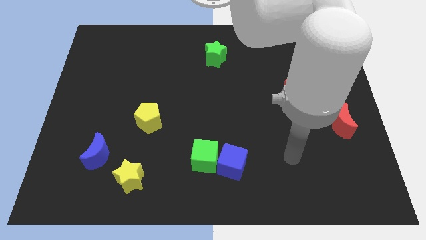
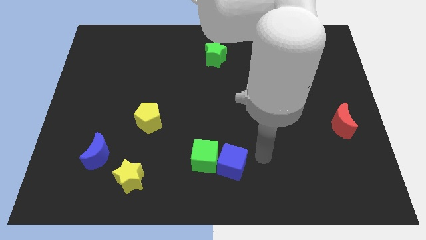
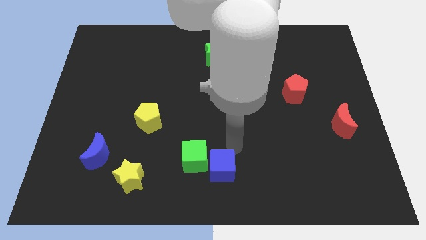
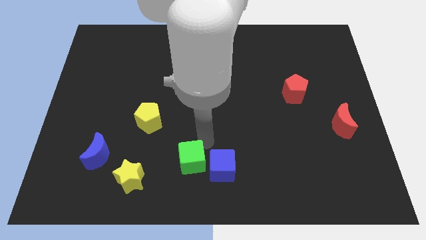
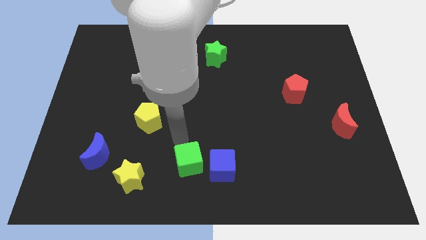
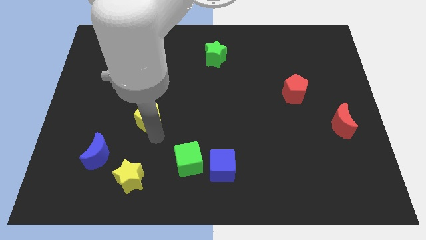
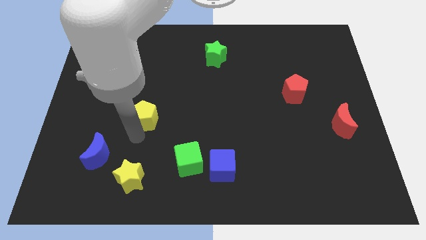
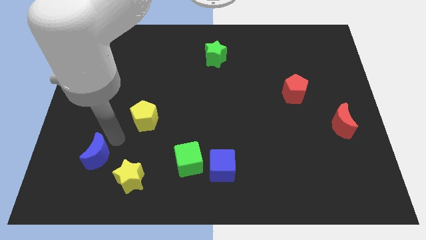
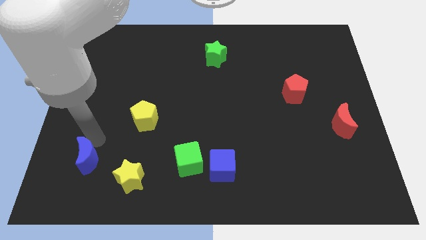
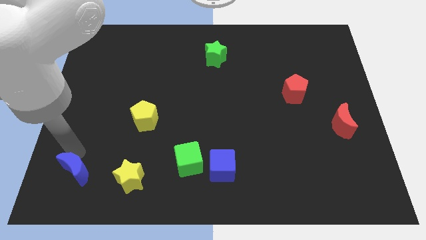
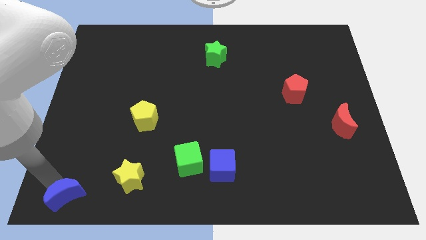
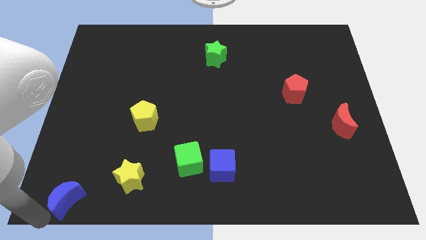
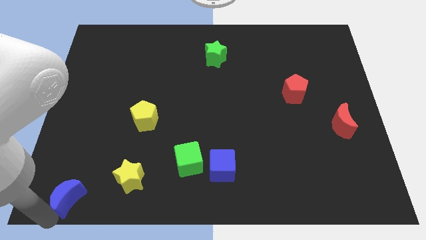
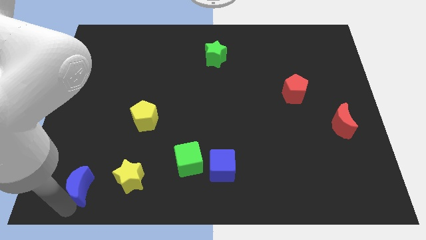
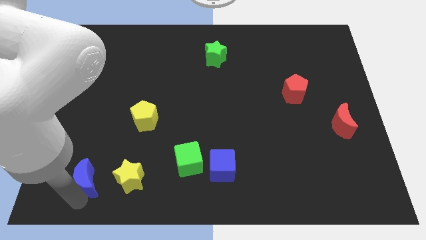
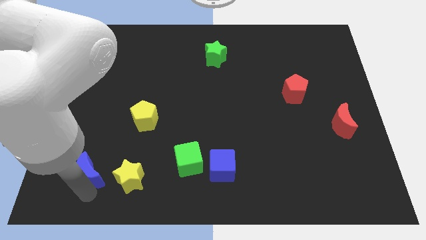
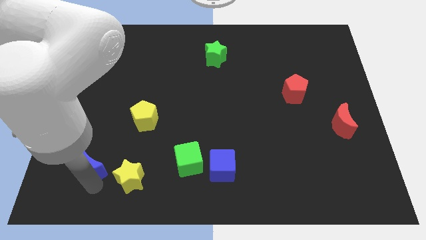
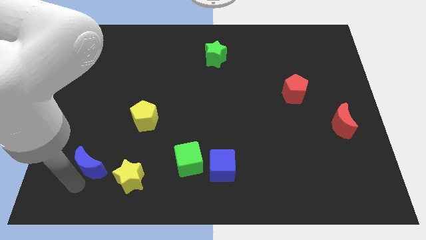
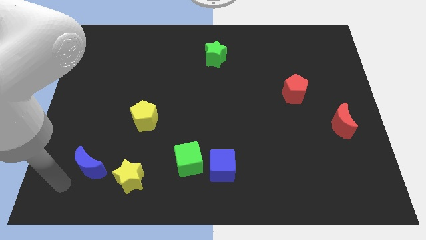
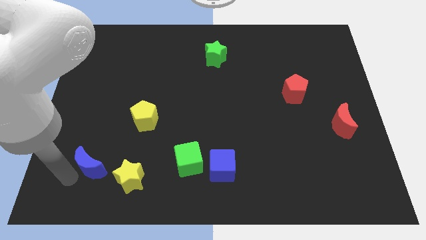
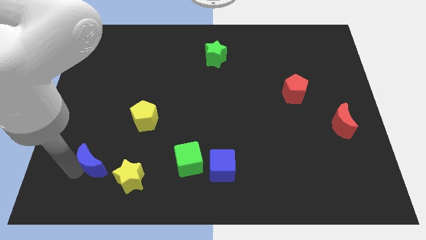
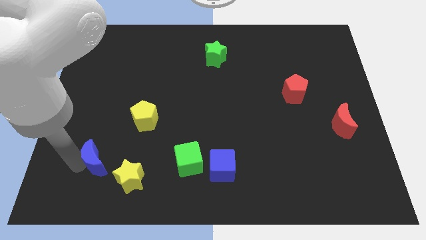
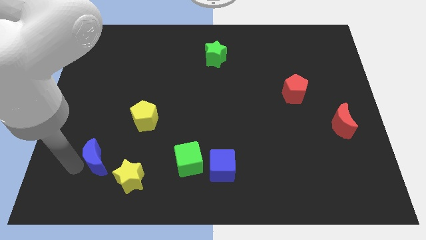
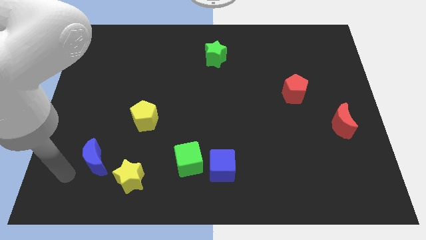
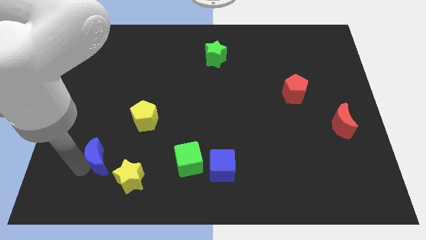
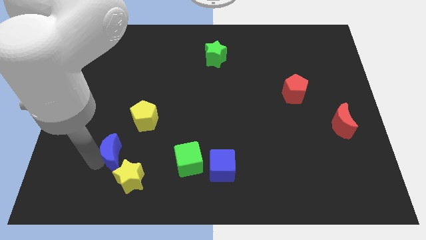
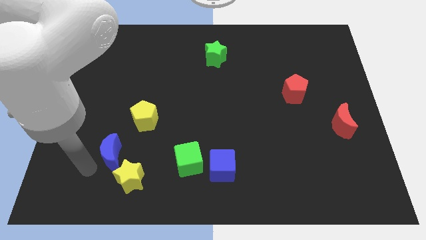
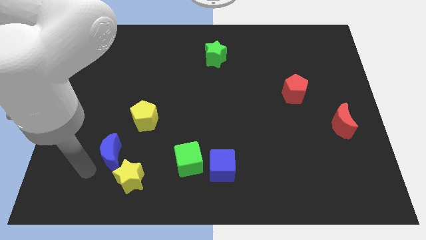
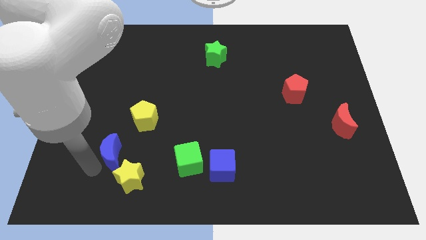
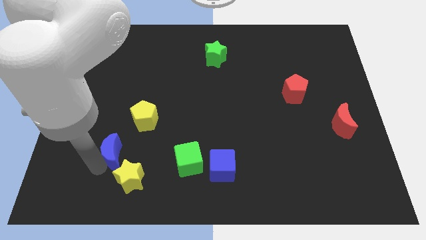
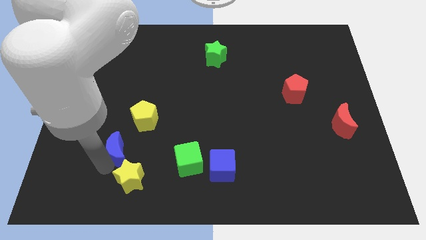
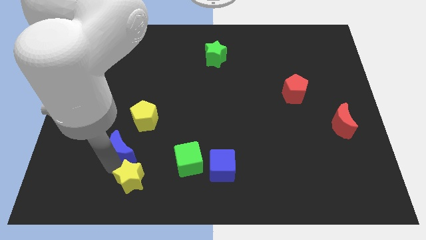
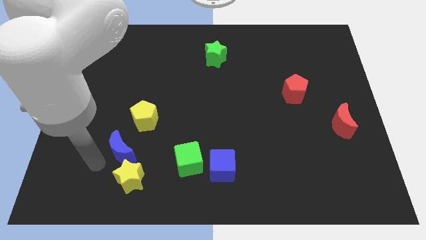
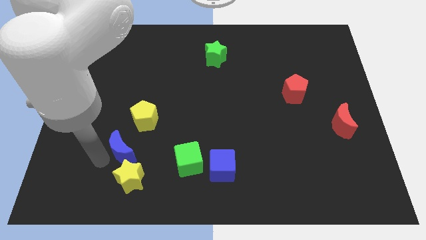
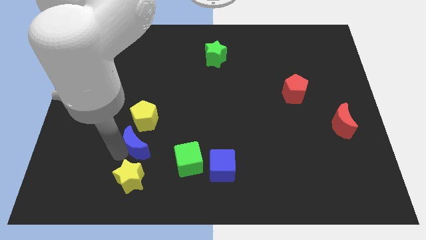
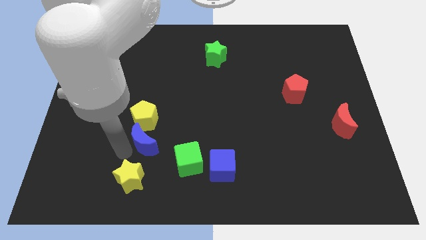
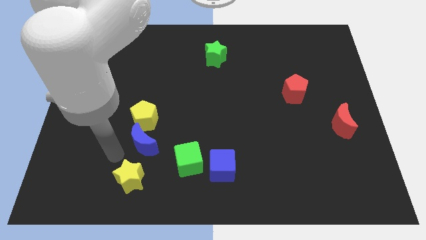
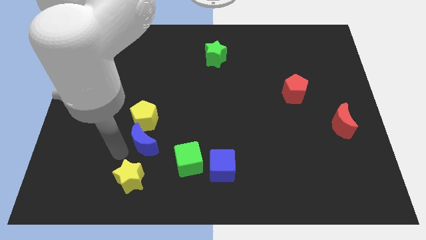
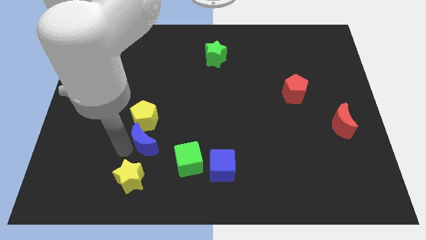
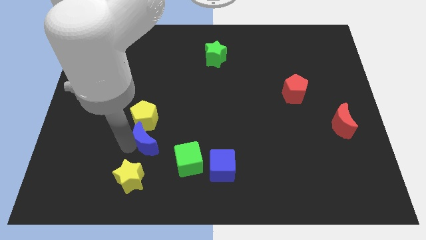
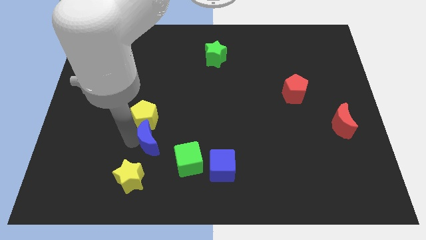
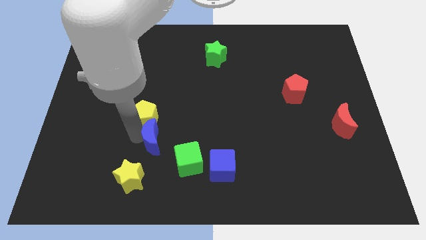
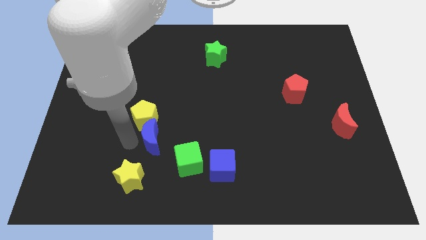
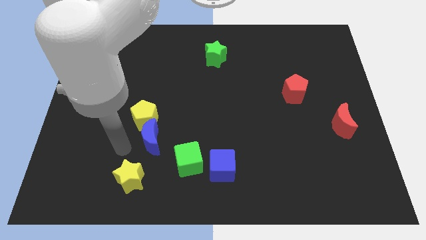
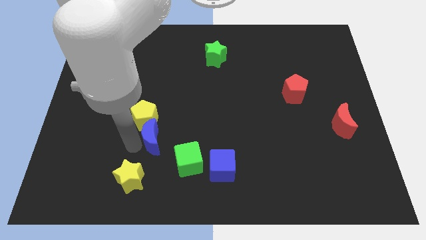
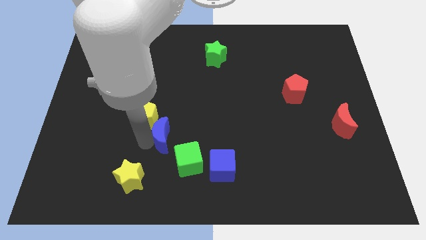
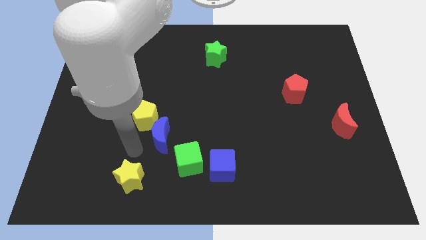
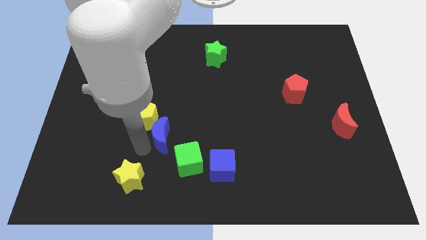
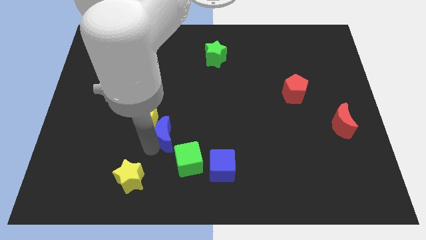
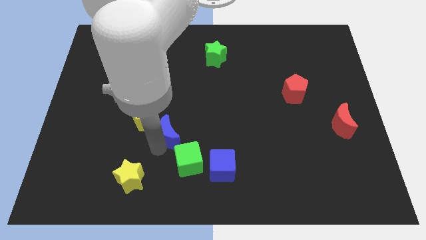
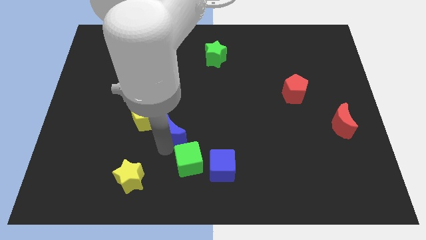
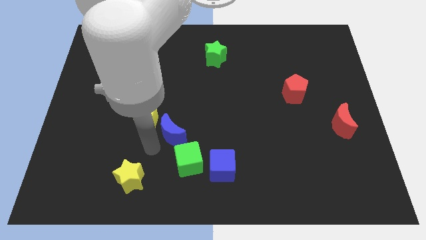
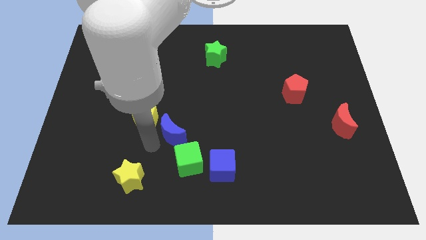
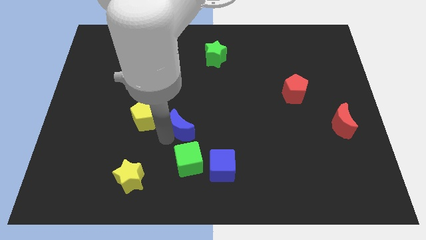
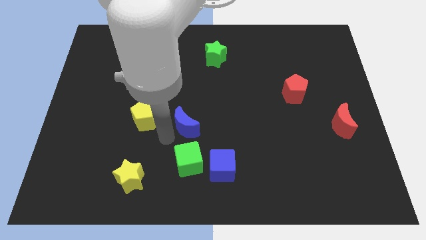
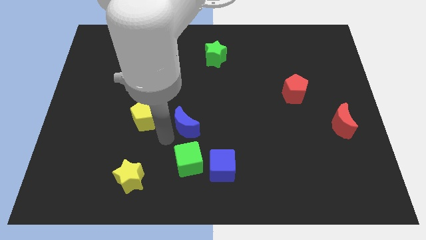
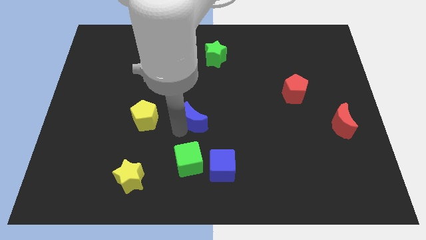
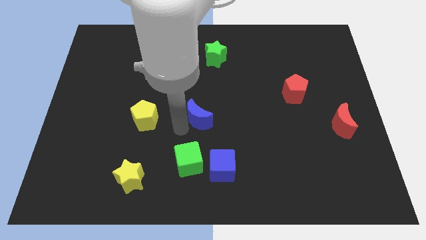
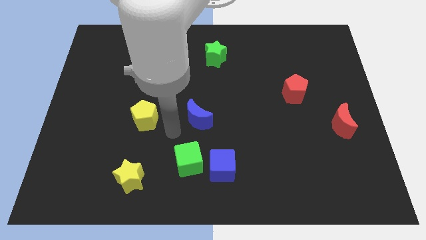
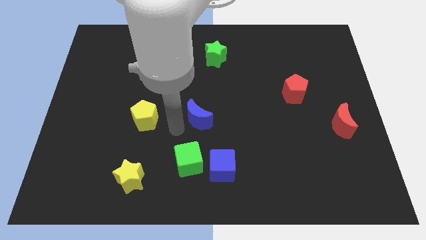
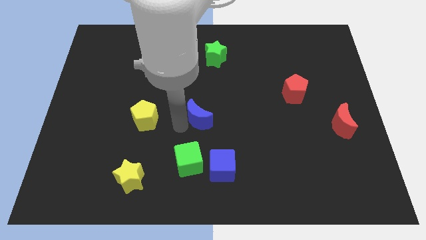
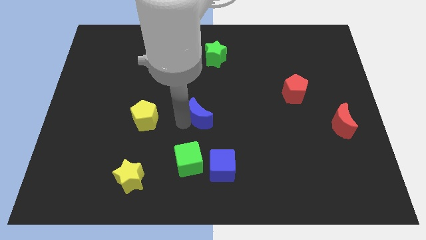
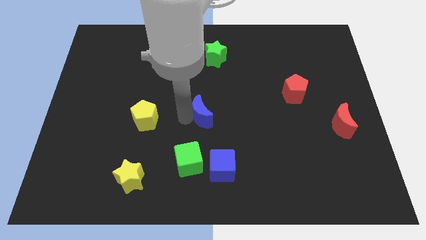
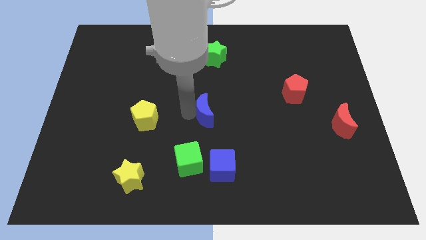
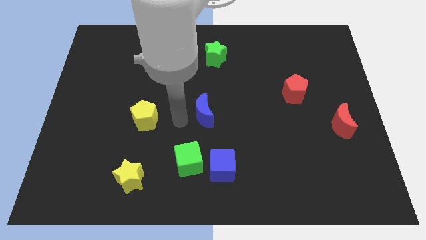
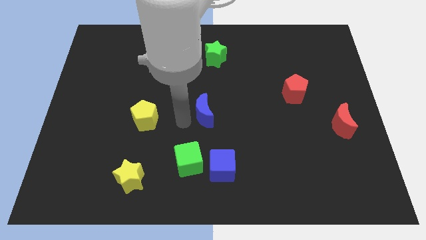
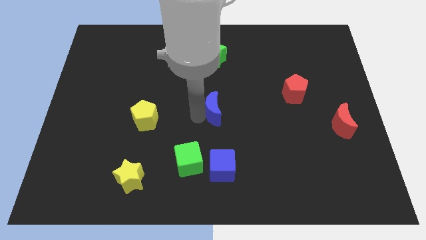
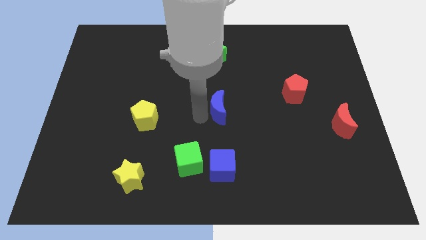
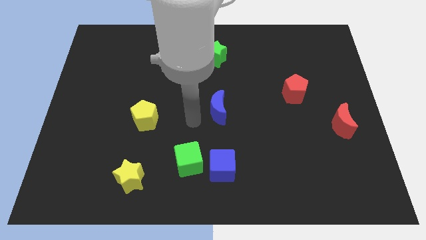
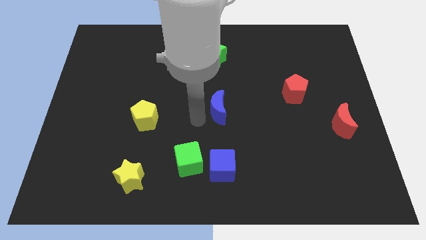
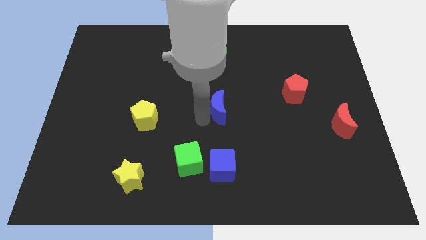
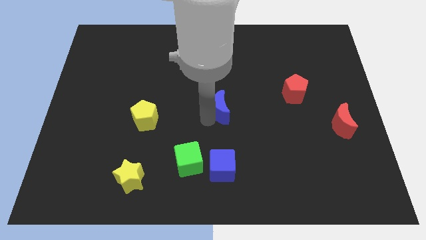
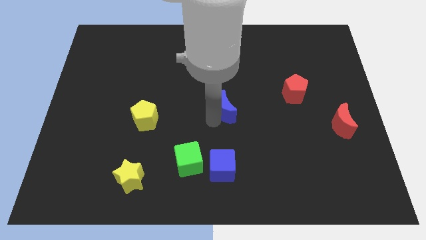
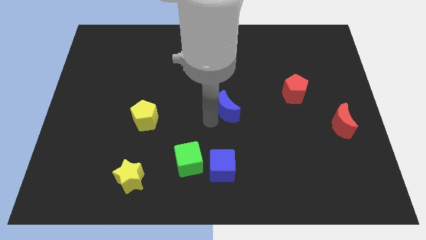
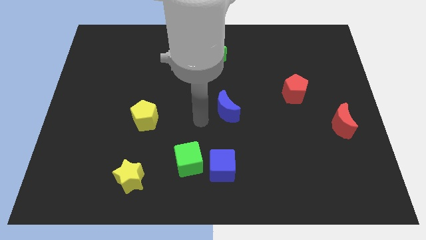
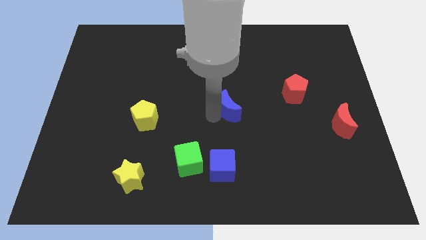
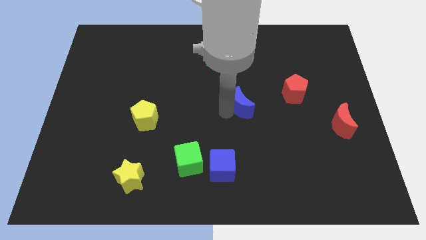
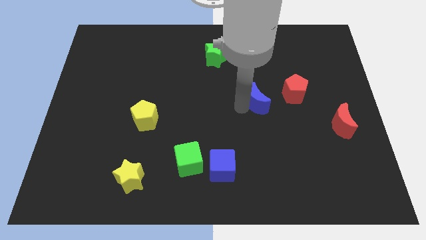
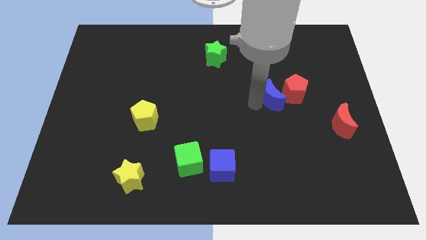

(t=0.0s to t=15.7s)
put the blue moon to the red pentagon
